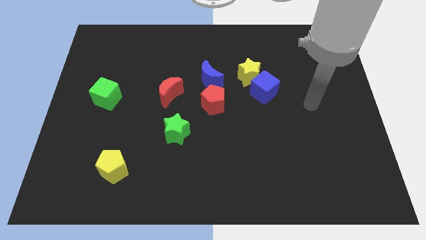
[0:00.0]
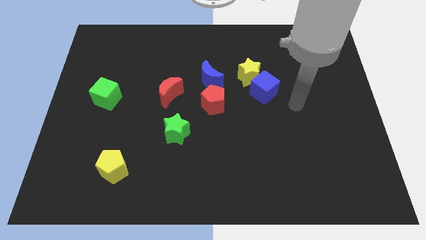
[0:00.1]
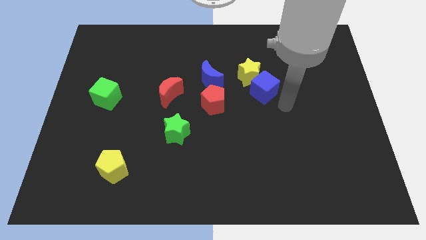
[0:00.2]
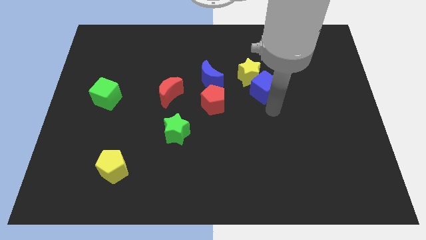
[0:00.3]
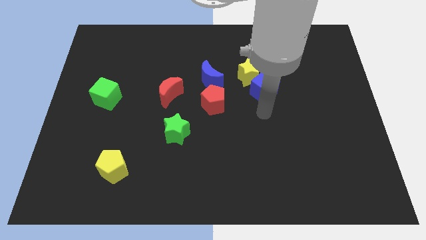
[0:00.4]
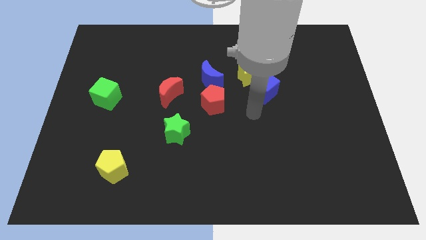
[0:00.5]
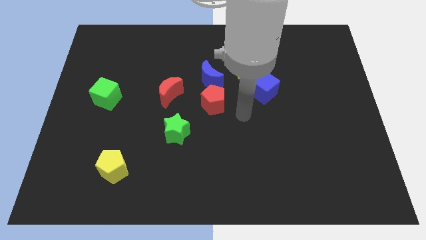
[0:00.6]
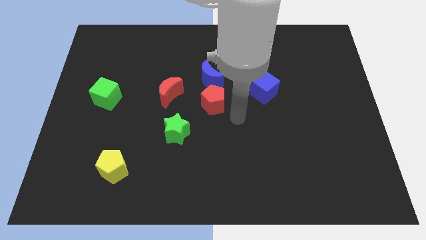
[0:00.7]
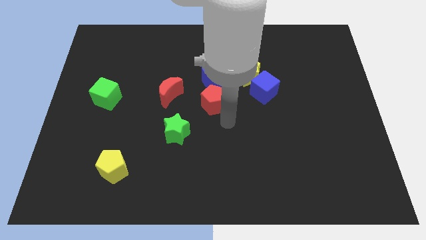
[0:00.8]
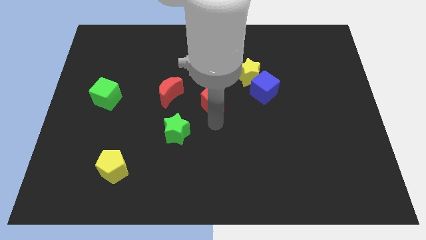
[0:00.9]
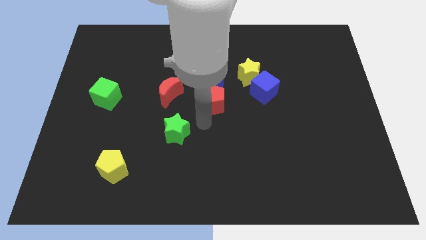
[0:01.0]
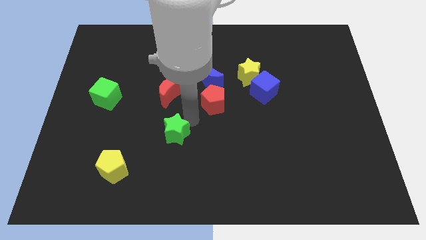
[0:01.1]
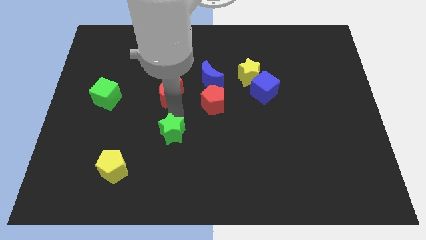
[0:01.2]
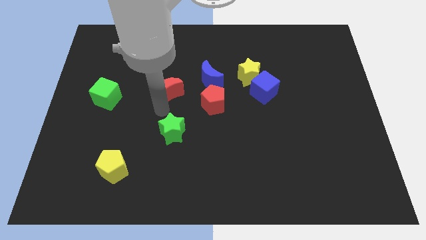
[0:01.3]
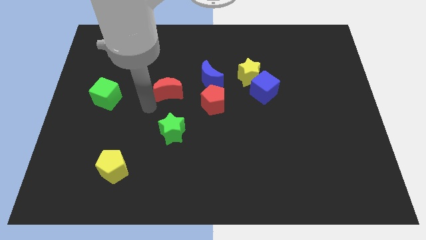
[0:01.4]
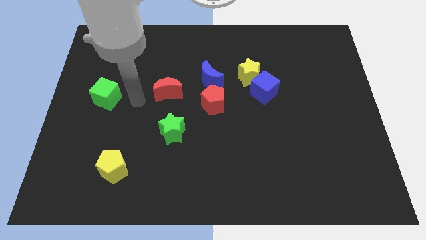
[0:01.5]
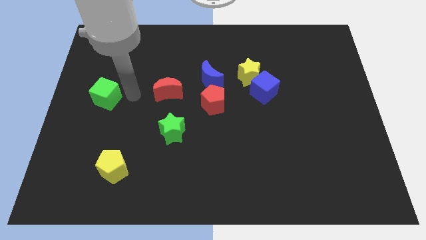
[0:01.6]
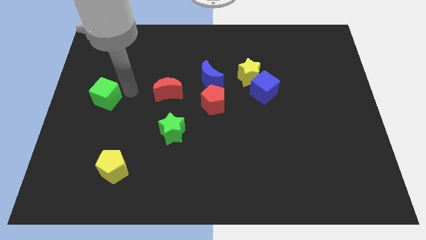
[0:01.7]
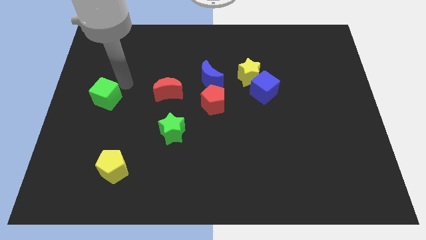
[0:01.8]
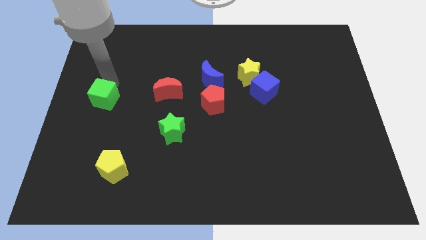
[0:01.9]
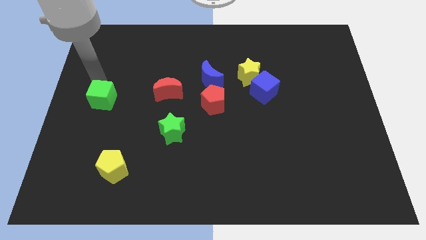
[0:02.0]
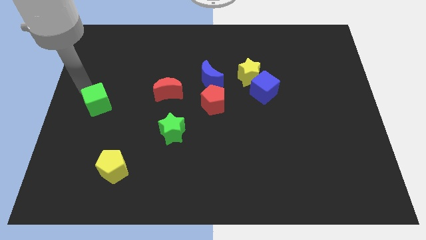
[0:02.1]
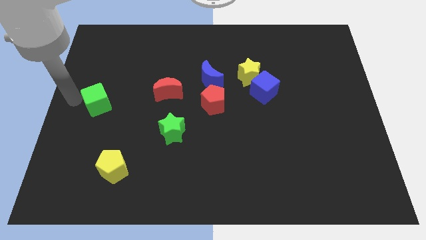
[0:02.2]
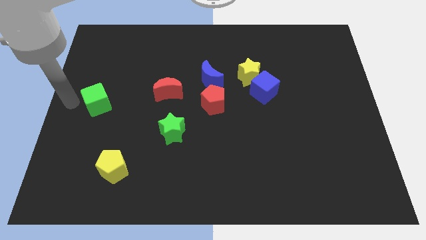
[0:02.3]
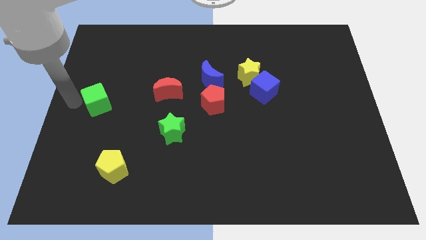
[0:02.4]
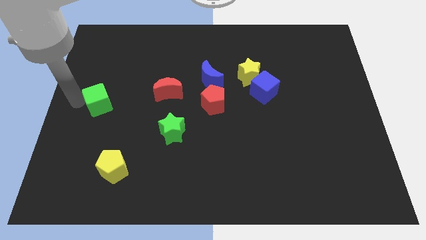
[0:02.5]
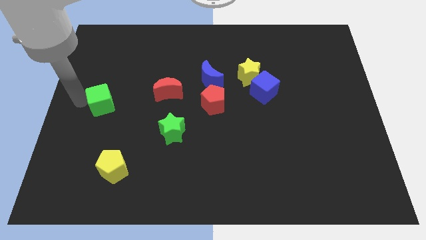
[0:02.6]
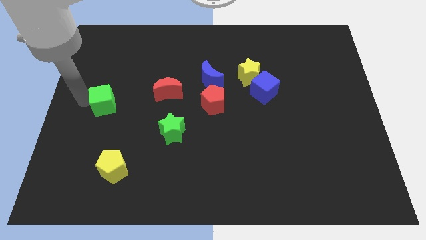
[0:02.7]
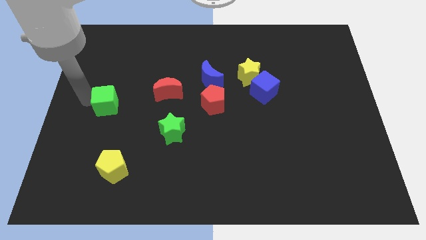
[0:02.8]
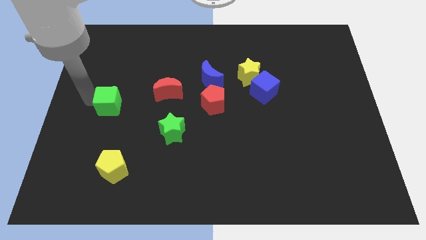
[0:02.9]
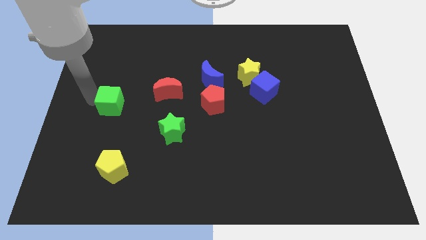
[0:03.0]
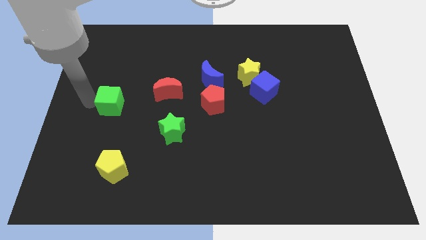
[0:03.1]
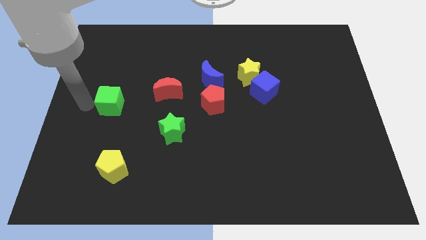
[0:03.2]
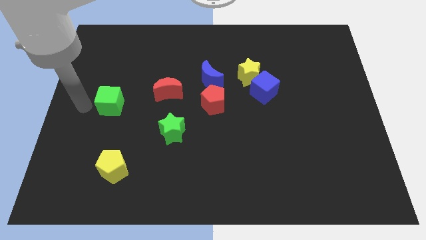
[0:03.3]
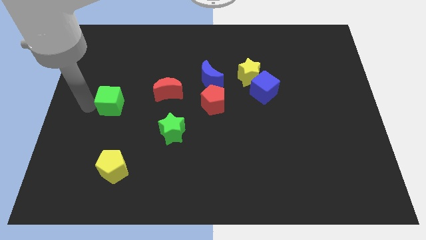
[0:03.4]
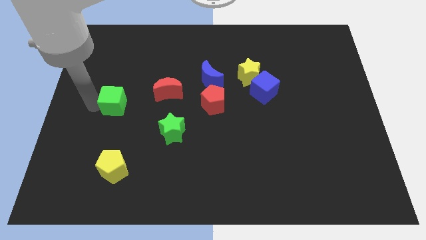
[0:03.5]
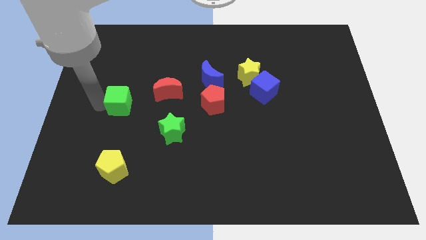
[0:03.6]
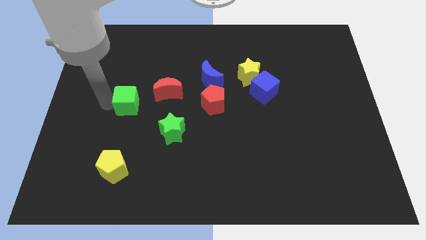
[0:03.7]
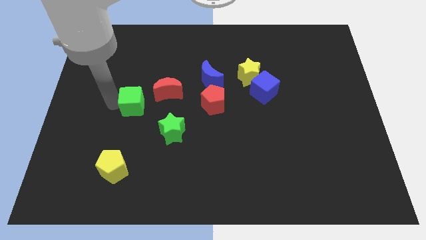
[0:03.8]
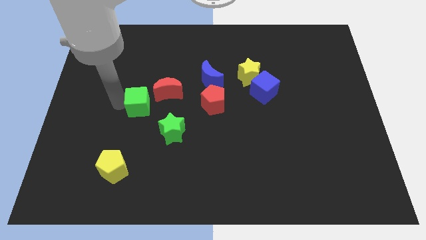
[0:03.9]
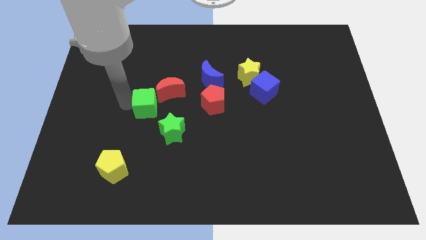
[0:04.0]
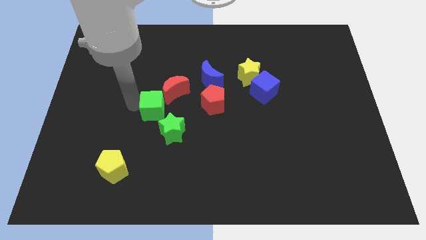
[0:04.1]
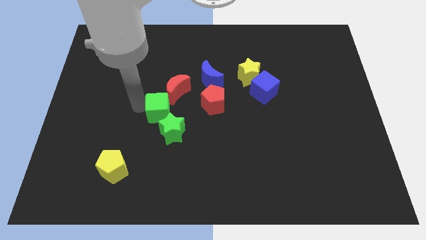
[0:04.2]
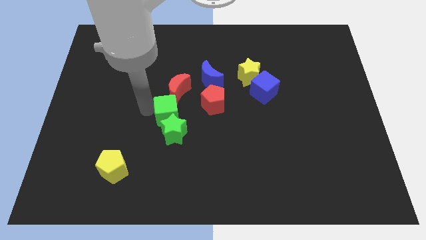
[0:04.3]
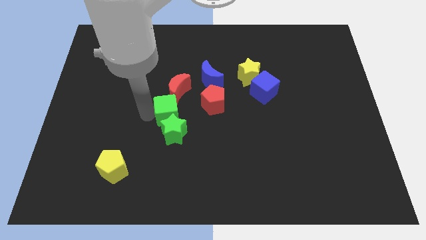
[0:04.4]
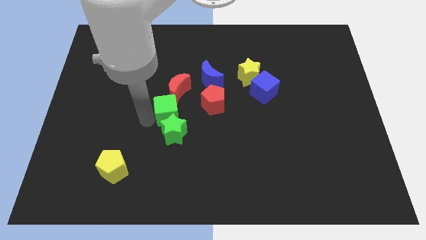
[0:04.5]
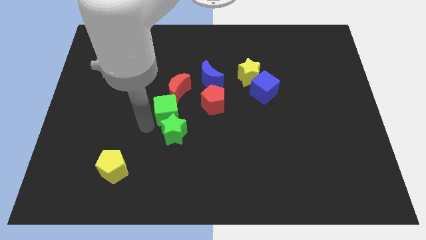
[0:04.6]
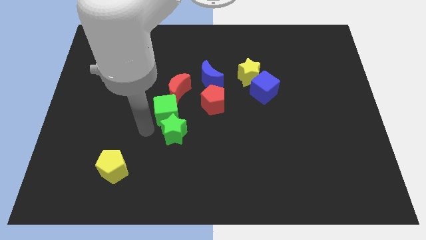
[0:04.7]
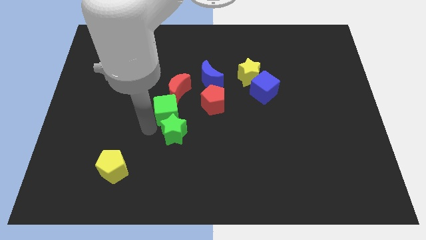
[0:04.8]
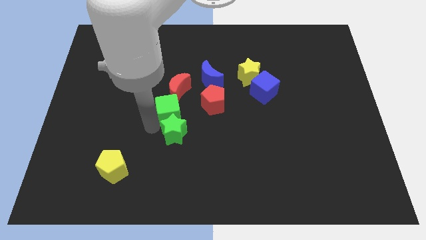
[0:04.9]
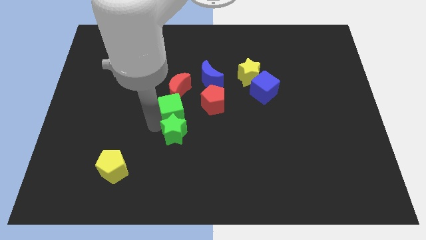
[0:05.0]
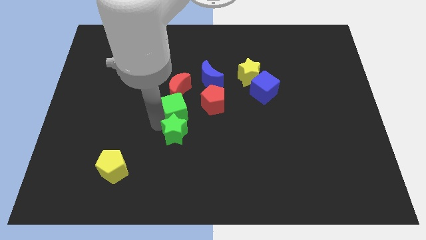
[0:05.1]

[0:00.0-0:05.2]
move the green cube to the bottom left side of the blue moon

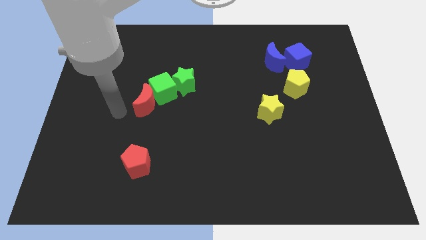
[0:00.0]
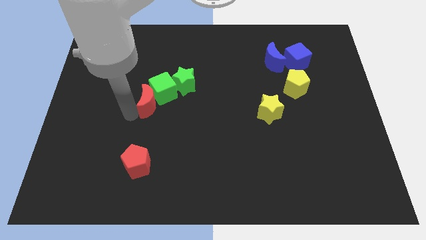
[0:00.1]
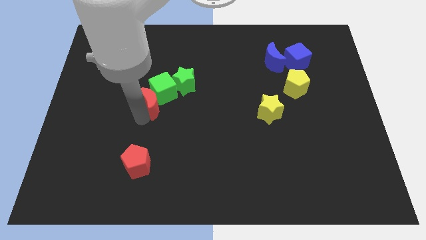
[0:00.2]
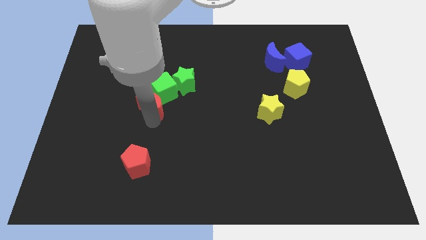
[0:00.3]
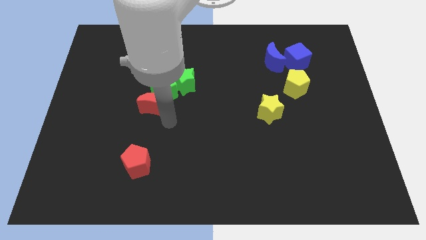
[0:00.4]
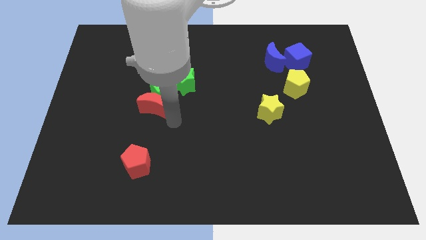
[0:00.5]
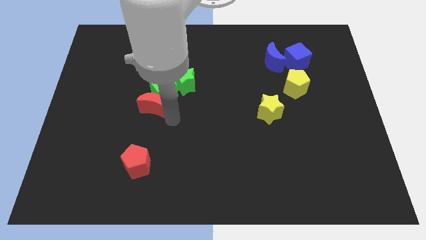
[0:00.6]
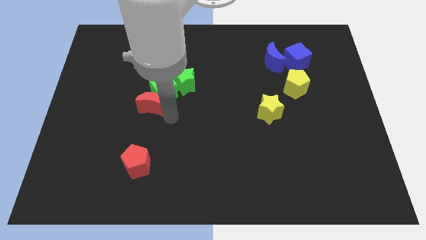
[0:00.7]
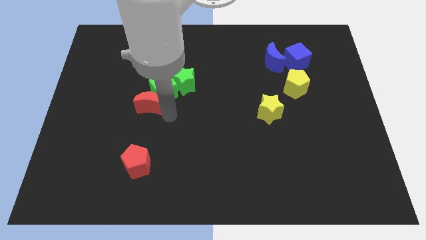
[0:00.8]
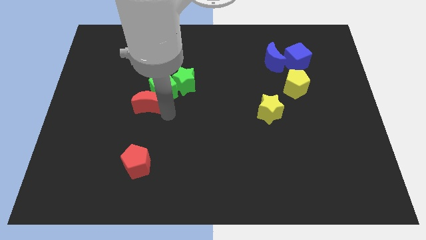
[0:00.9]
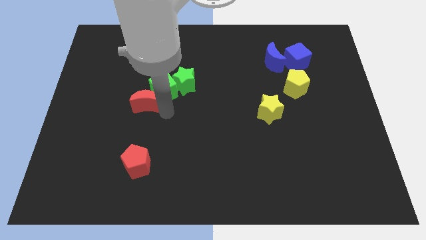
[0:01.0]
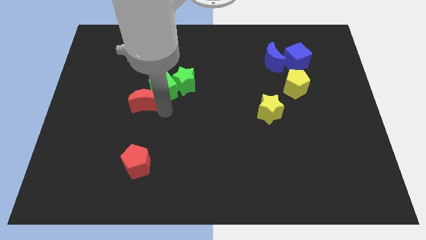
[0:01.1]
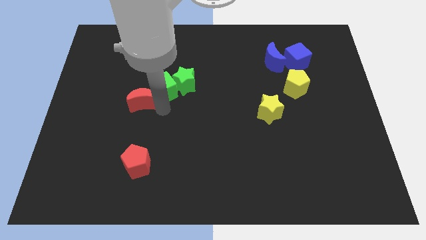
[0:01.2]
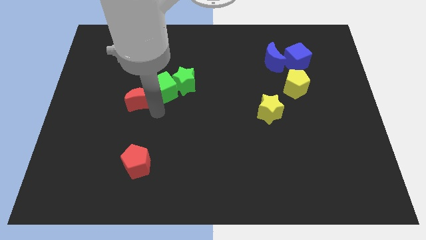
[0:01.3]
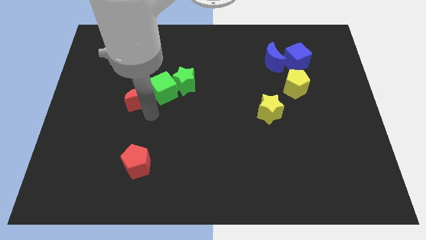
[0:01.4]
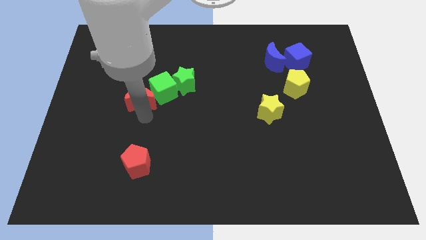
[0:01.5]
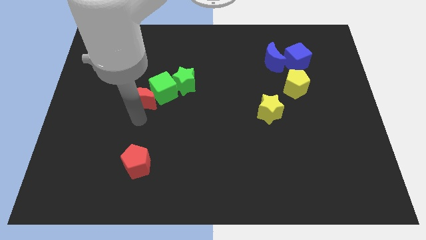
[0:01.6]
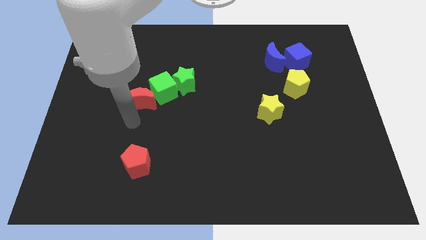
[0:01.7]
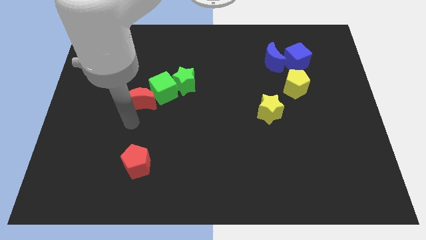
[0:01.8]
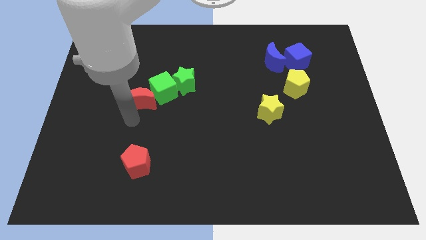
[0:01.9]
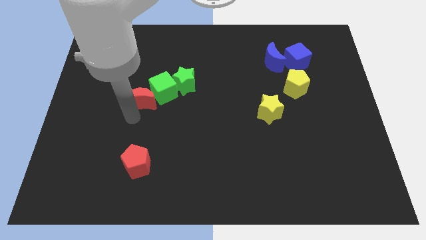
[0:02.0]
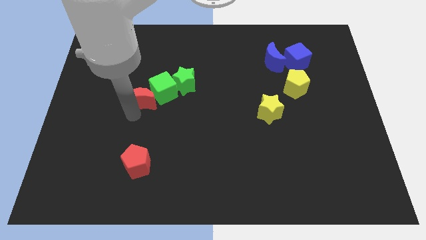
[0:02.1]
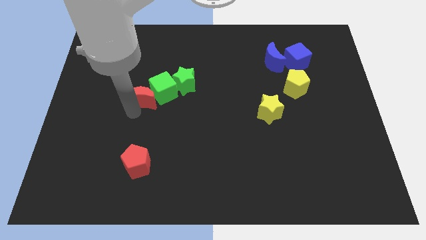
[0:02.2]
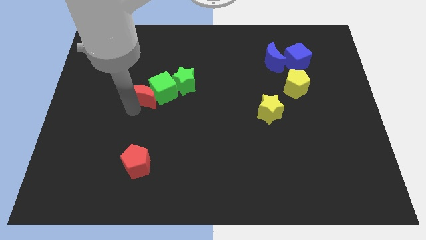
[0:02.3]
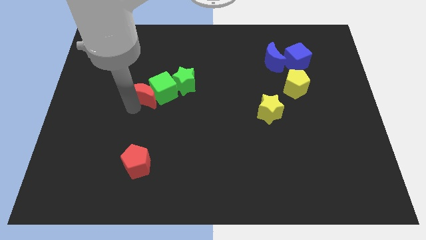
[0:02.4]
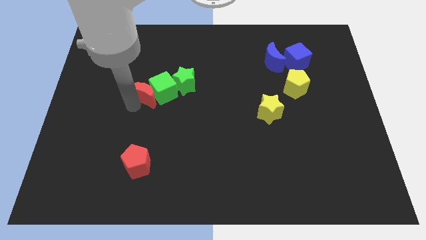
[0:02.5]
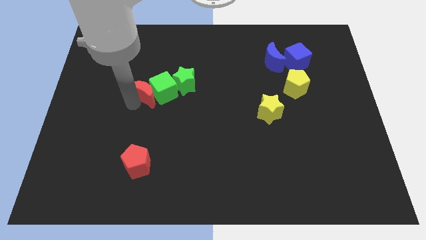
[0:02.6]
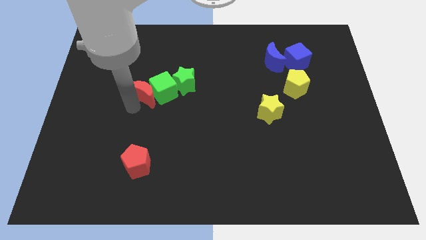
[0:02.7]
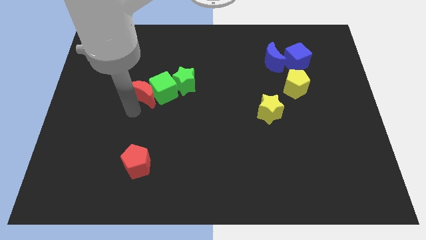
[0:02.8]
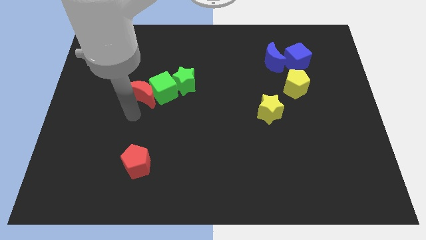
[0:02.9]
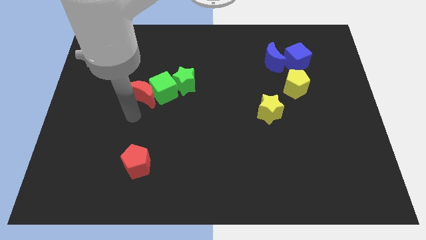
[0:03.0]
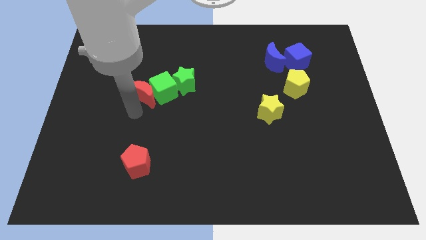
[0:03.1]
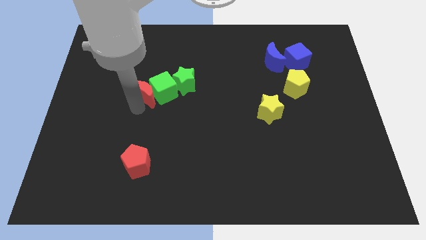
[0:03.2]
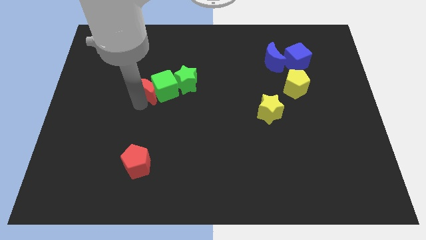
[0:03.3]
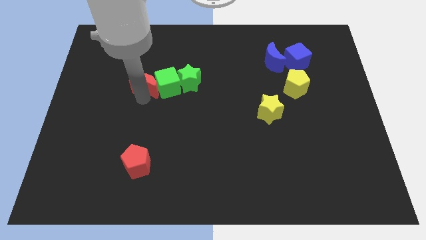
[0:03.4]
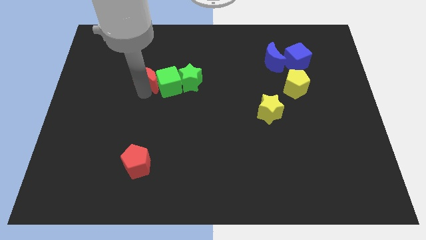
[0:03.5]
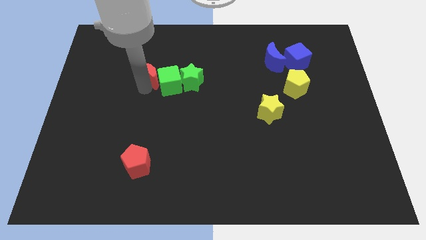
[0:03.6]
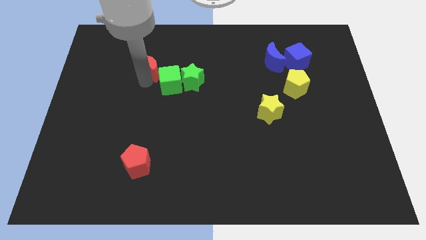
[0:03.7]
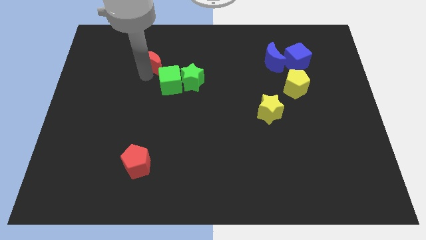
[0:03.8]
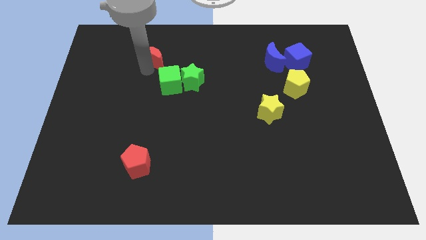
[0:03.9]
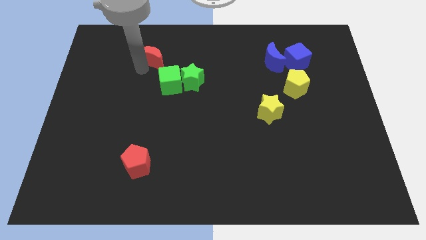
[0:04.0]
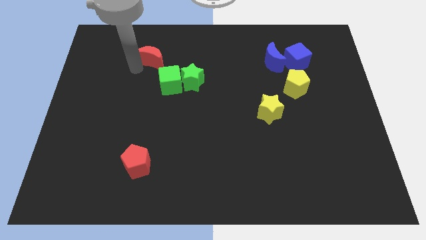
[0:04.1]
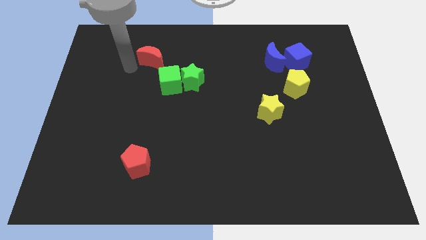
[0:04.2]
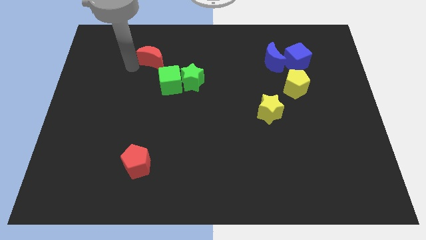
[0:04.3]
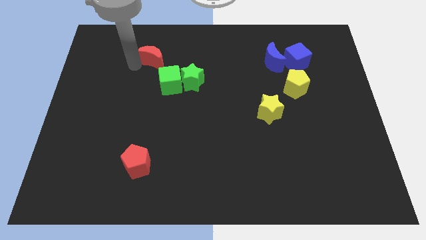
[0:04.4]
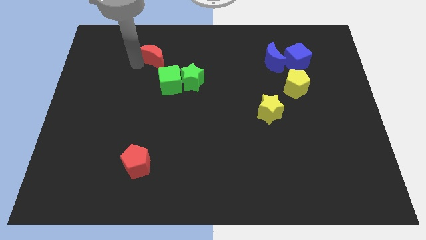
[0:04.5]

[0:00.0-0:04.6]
move the red moon to the top side of the green cube
